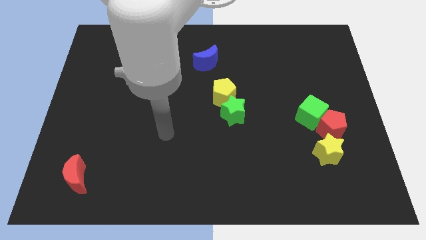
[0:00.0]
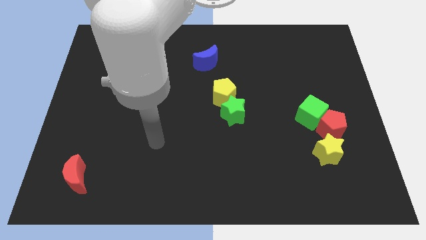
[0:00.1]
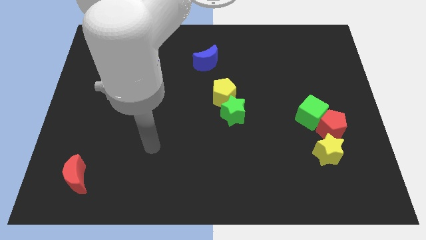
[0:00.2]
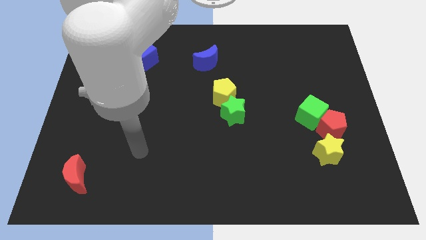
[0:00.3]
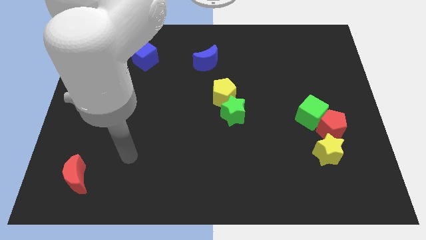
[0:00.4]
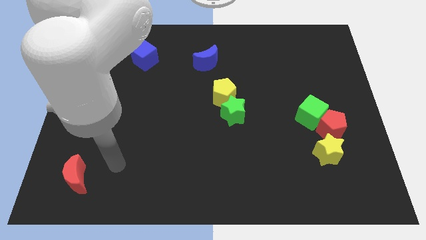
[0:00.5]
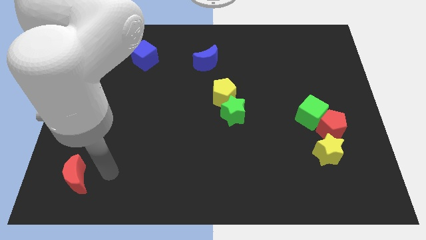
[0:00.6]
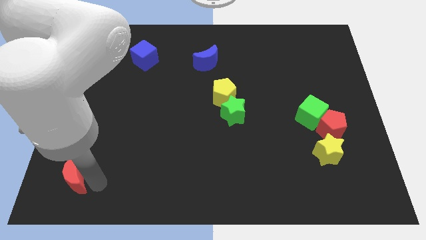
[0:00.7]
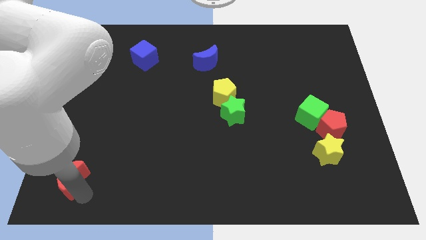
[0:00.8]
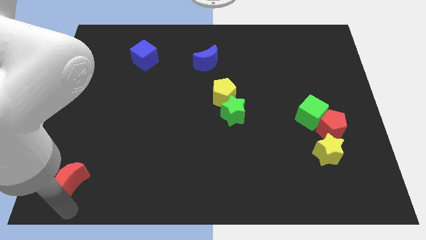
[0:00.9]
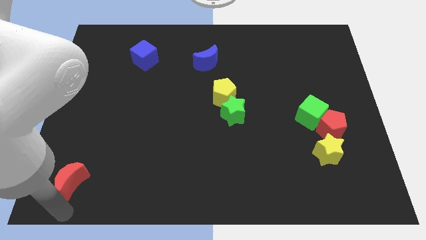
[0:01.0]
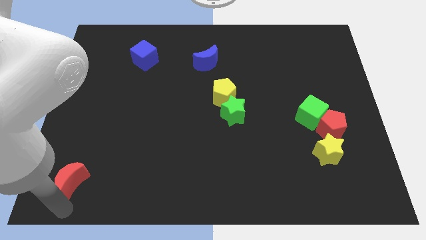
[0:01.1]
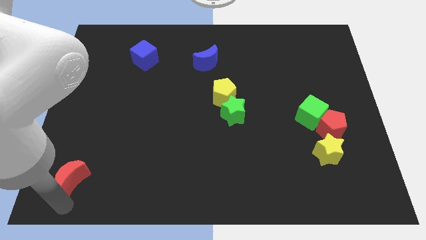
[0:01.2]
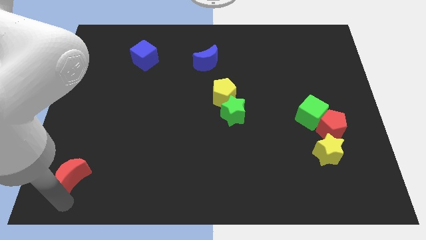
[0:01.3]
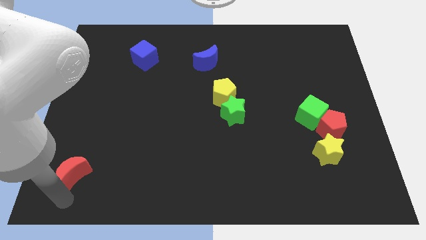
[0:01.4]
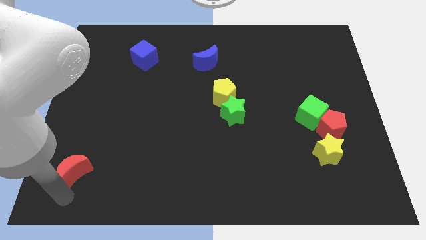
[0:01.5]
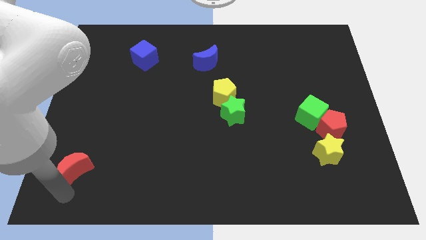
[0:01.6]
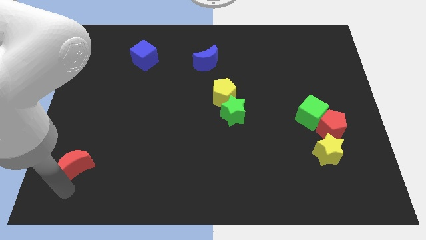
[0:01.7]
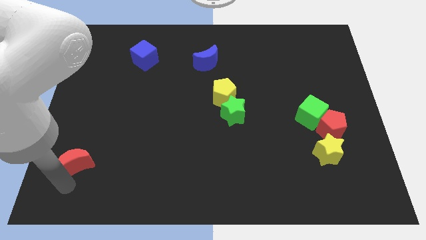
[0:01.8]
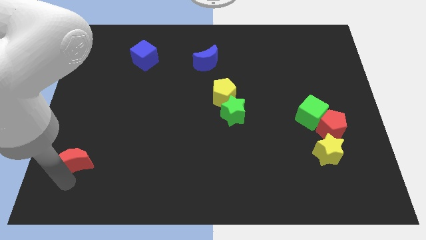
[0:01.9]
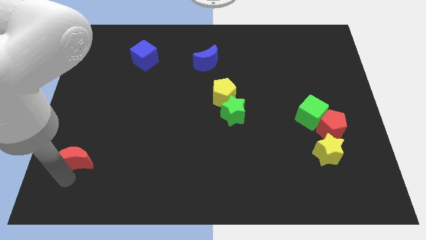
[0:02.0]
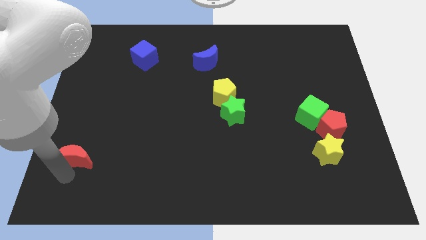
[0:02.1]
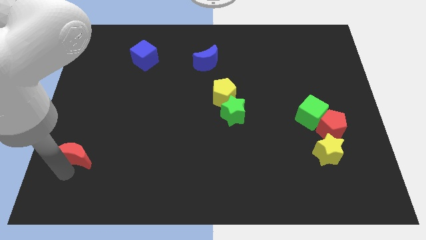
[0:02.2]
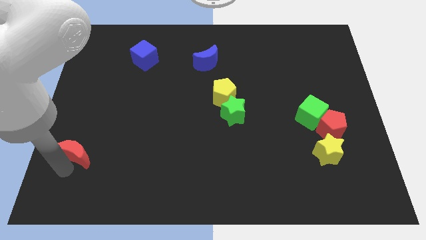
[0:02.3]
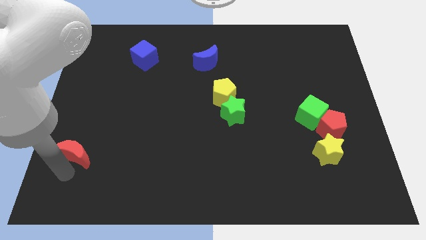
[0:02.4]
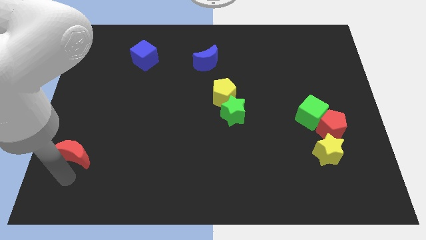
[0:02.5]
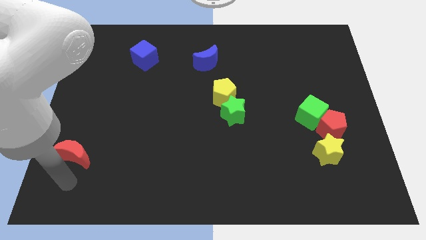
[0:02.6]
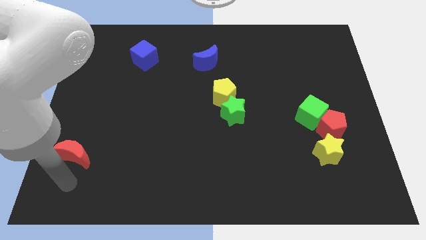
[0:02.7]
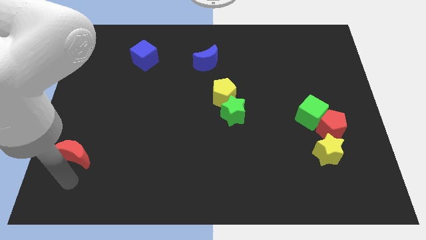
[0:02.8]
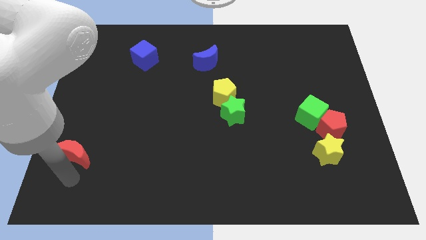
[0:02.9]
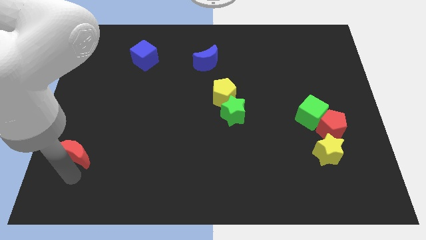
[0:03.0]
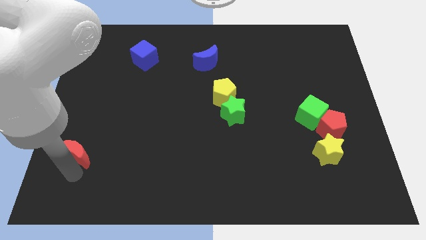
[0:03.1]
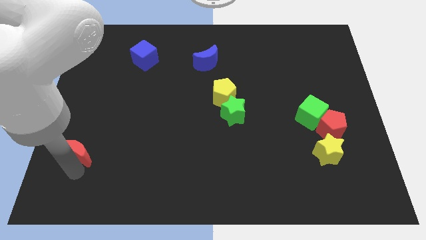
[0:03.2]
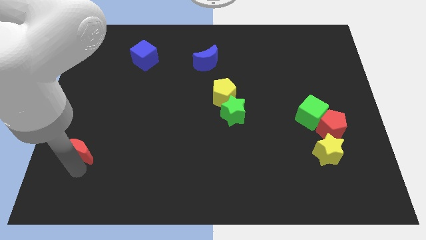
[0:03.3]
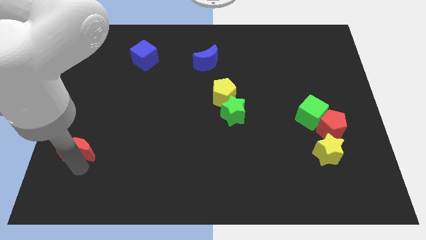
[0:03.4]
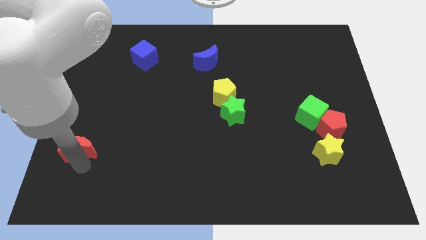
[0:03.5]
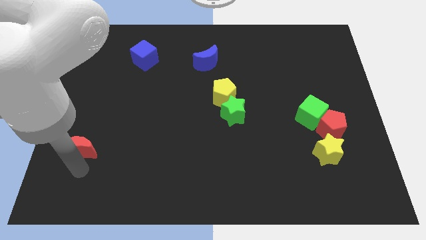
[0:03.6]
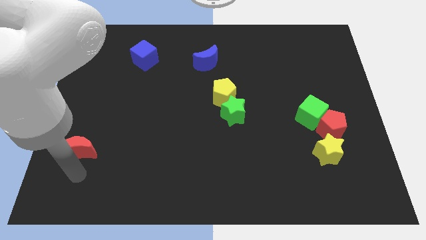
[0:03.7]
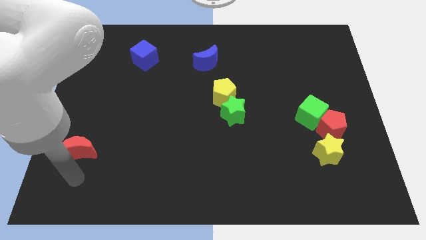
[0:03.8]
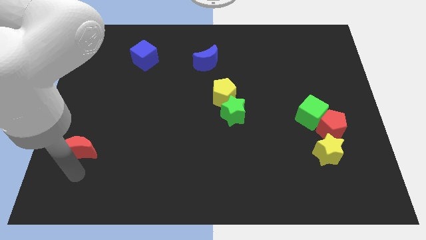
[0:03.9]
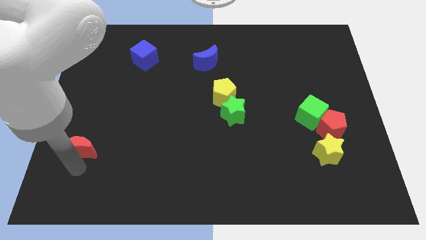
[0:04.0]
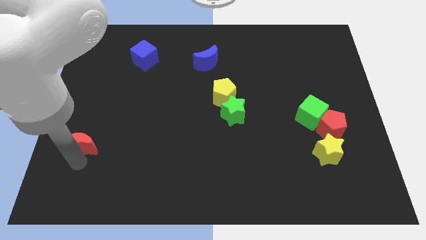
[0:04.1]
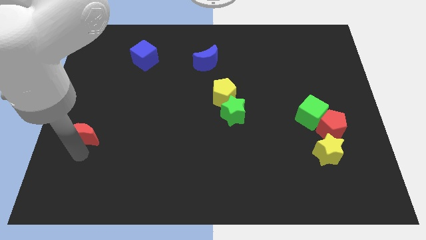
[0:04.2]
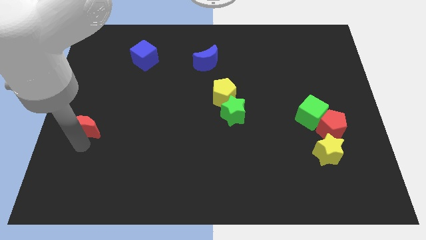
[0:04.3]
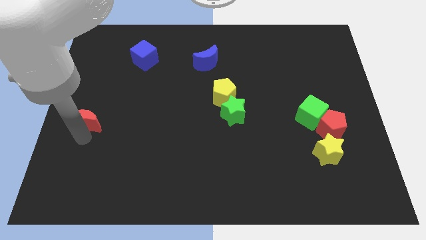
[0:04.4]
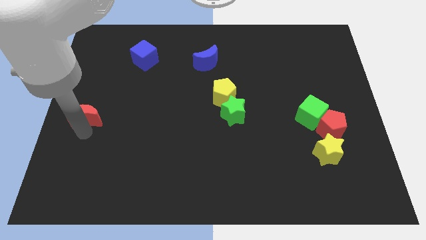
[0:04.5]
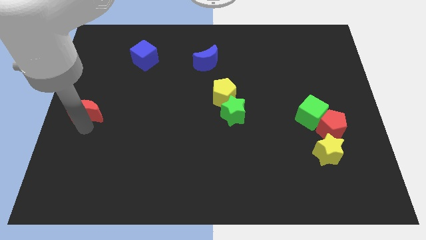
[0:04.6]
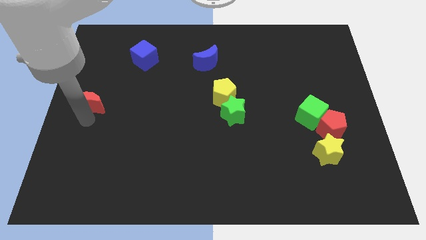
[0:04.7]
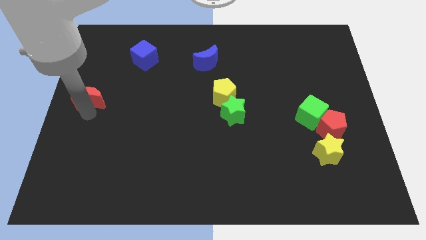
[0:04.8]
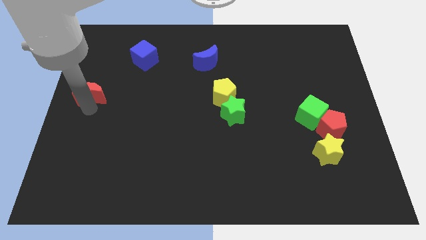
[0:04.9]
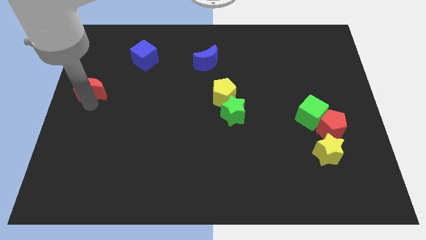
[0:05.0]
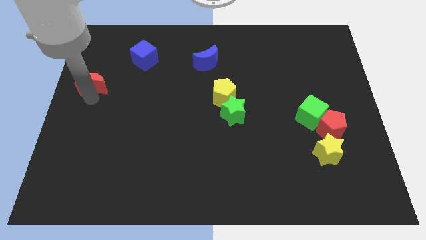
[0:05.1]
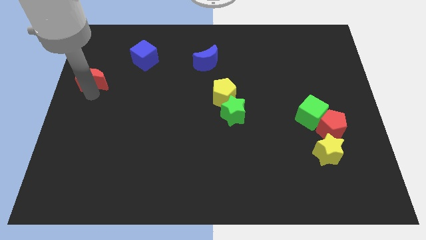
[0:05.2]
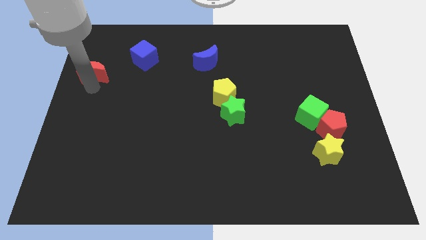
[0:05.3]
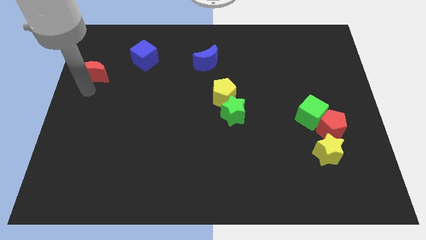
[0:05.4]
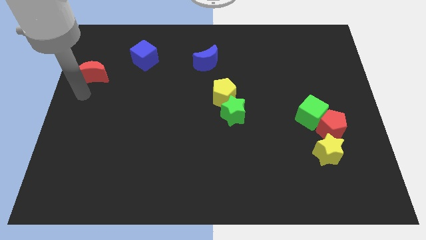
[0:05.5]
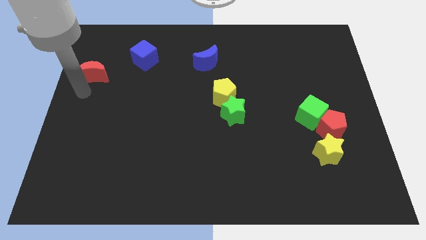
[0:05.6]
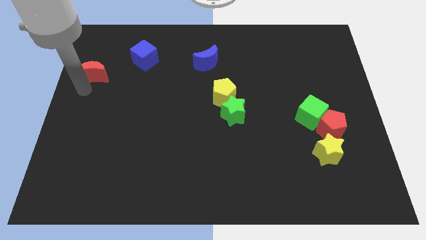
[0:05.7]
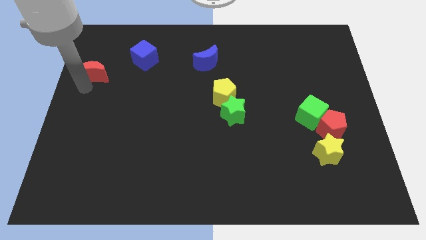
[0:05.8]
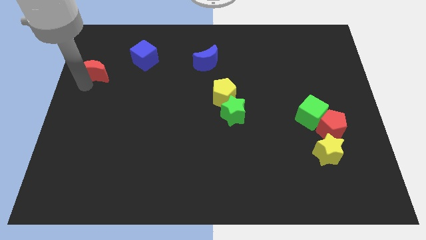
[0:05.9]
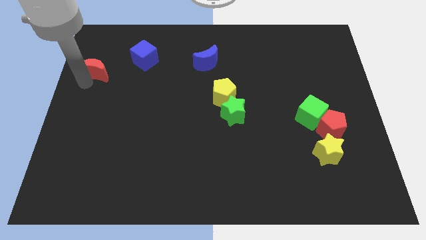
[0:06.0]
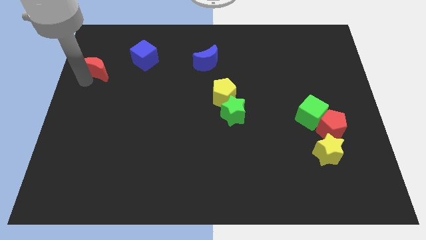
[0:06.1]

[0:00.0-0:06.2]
put the red moon left of the blue cube
